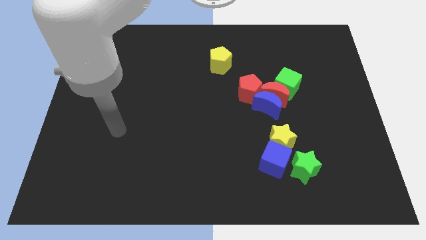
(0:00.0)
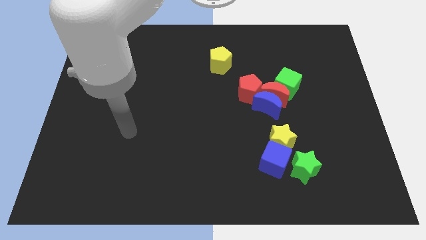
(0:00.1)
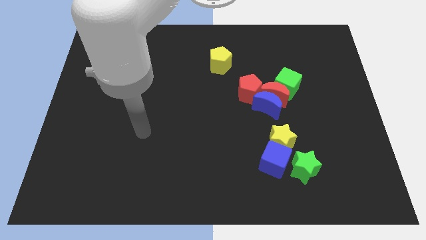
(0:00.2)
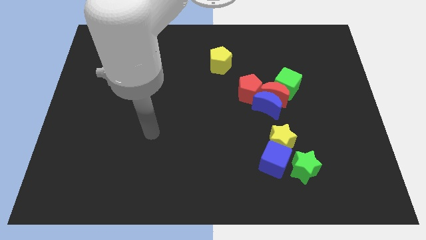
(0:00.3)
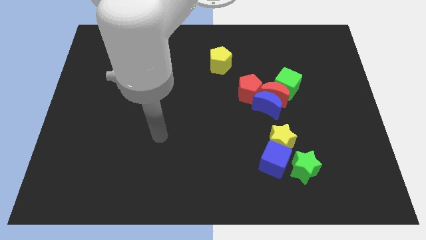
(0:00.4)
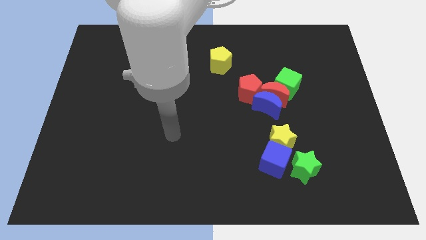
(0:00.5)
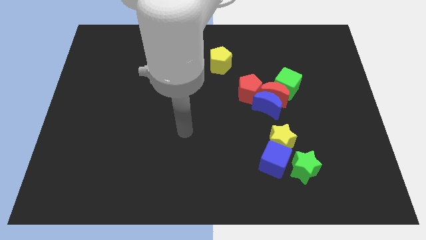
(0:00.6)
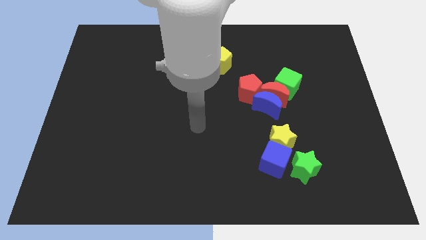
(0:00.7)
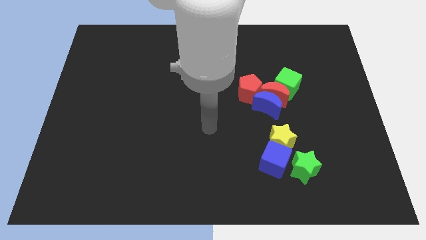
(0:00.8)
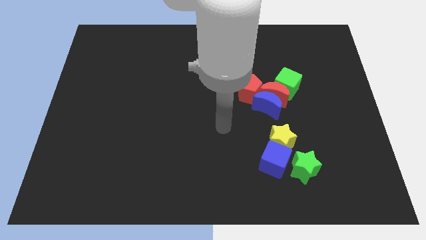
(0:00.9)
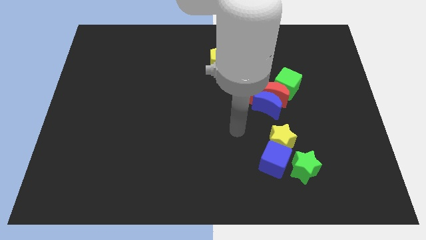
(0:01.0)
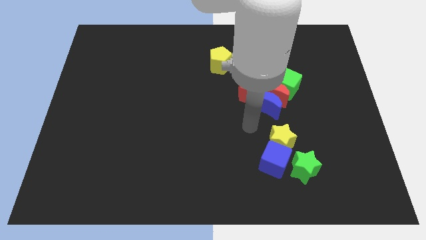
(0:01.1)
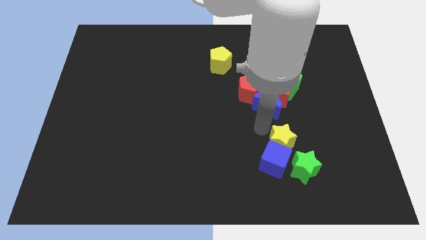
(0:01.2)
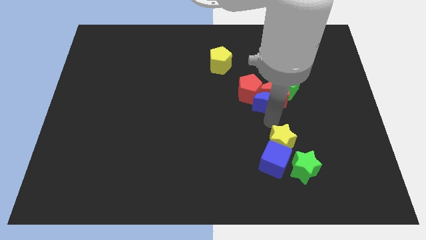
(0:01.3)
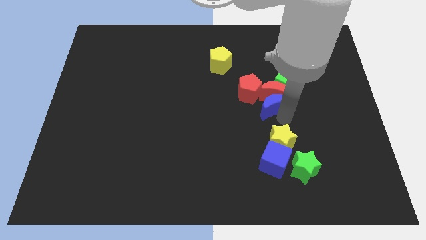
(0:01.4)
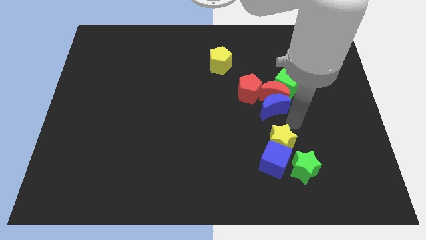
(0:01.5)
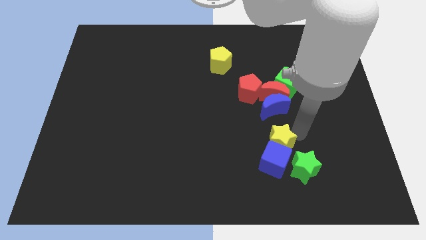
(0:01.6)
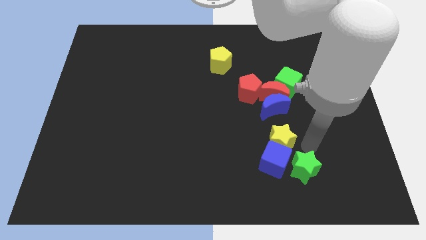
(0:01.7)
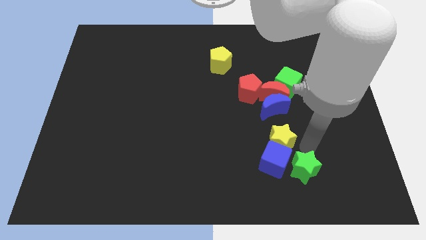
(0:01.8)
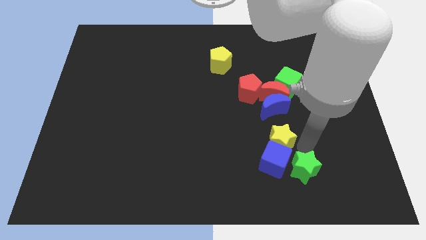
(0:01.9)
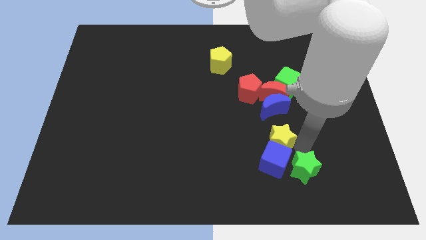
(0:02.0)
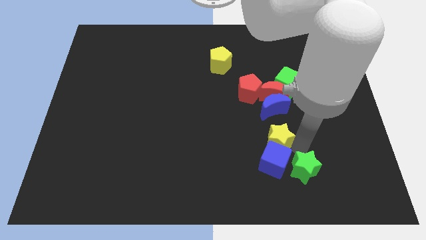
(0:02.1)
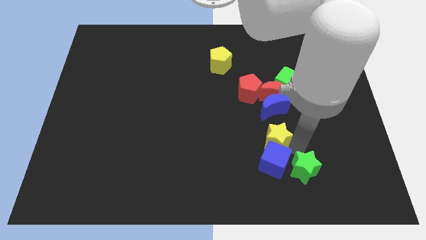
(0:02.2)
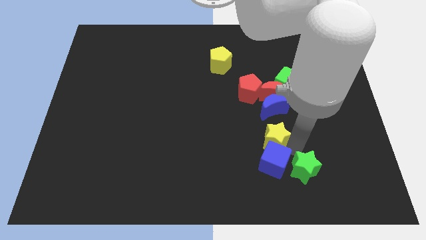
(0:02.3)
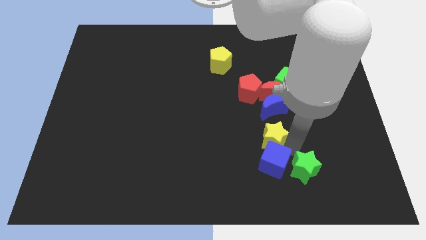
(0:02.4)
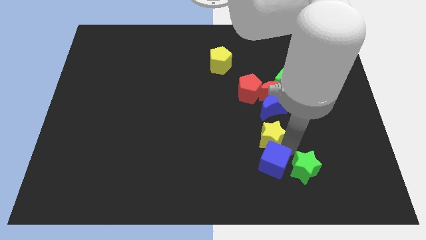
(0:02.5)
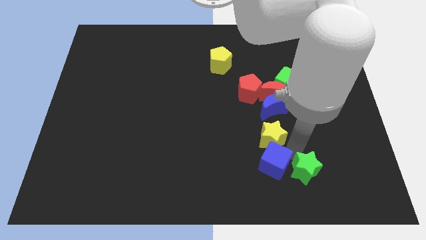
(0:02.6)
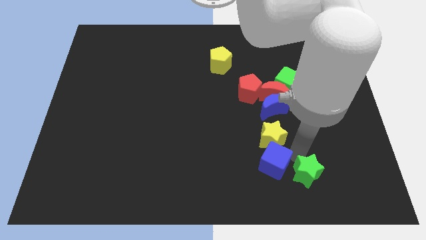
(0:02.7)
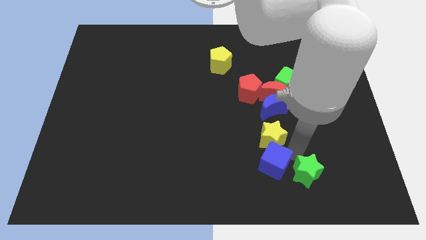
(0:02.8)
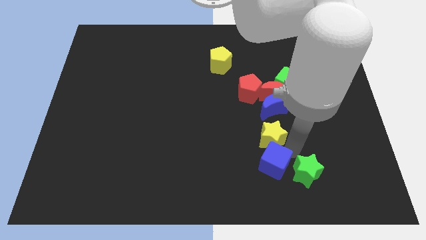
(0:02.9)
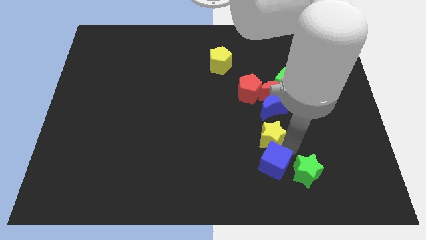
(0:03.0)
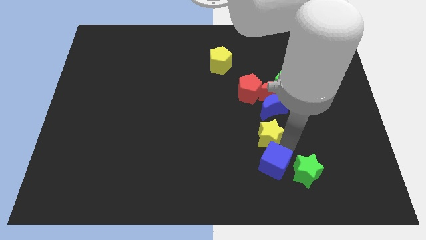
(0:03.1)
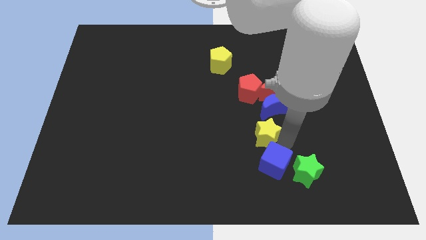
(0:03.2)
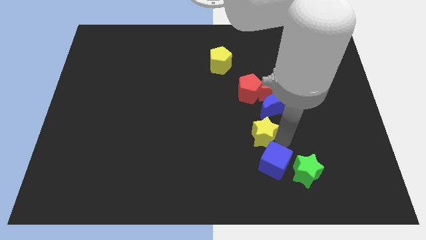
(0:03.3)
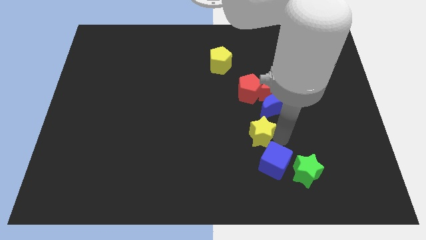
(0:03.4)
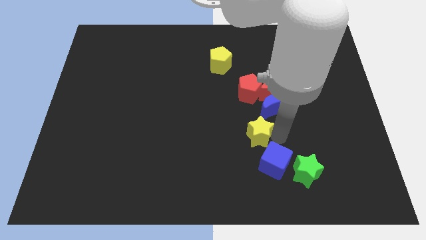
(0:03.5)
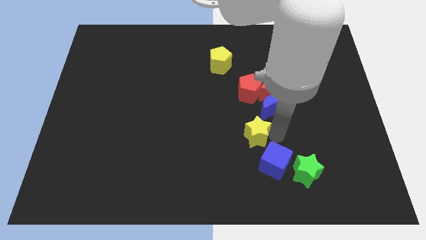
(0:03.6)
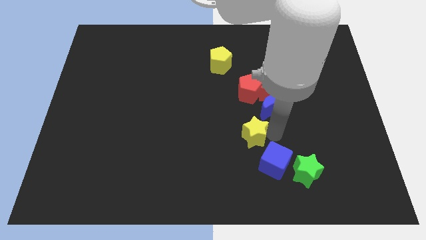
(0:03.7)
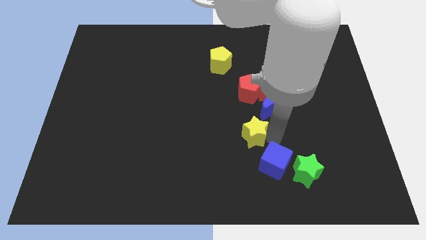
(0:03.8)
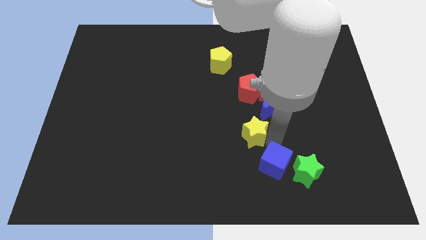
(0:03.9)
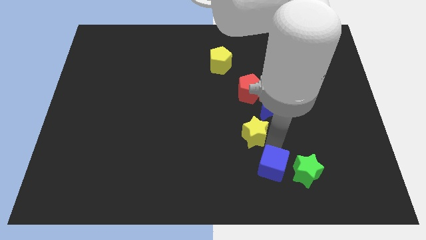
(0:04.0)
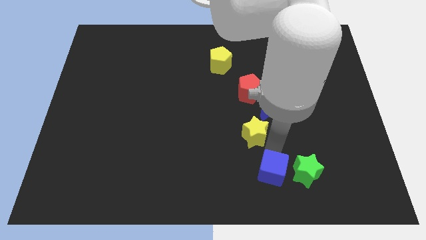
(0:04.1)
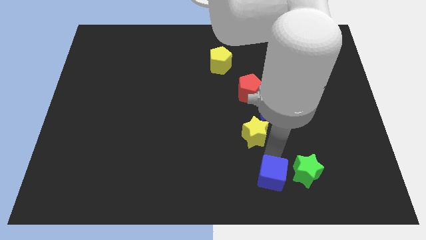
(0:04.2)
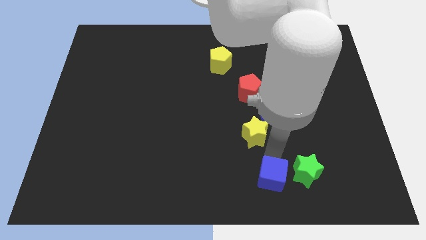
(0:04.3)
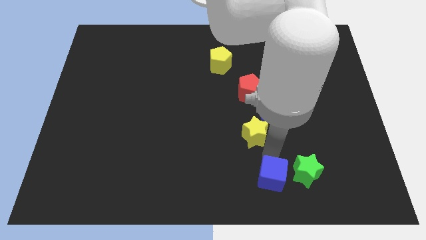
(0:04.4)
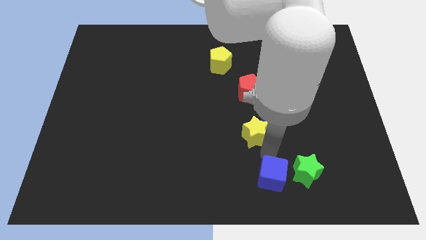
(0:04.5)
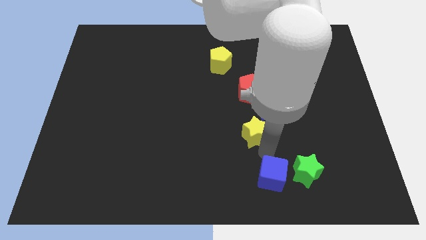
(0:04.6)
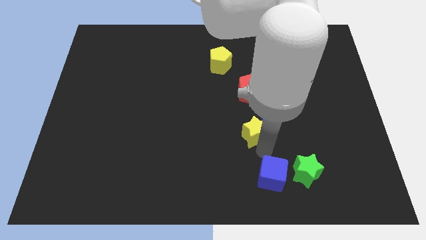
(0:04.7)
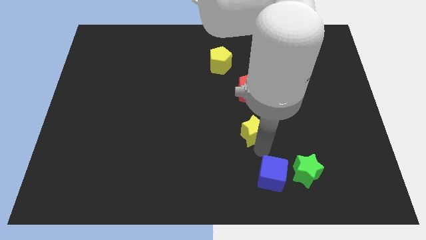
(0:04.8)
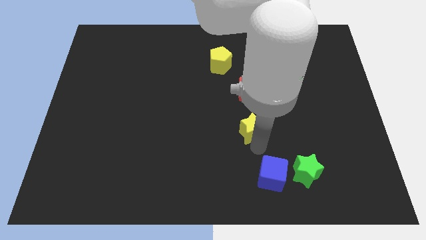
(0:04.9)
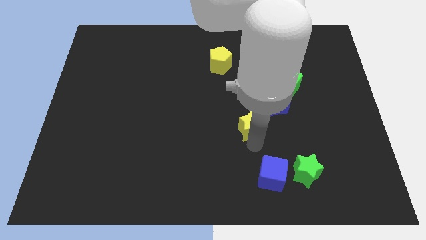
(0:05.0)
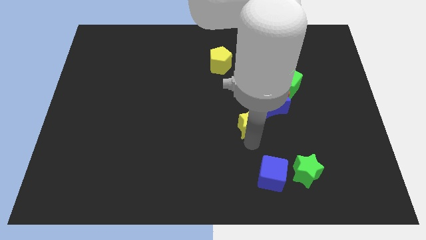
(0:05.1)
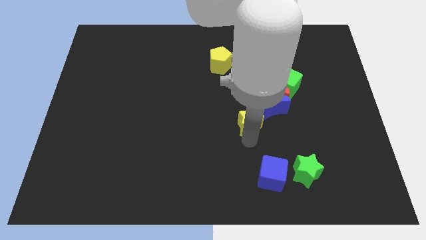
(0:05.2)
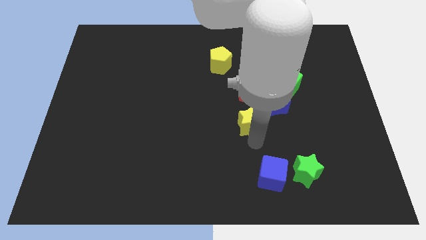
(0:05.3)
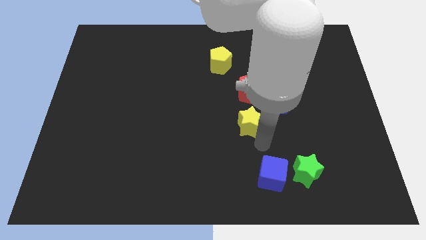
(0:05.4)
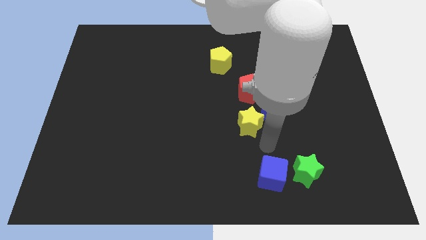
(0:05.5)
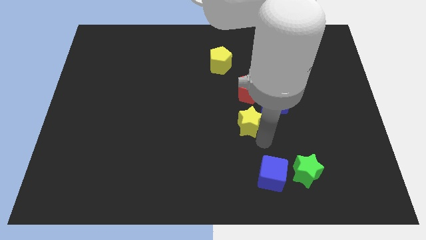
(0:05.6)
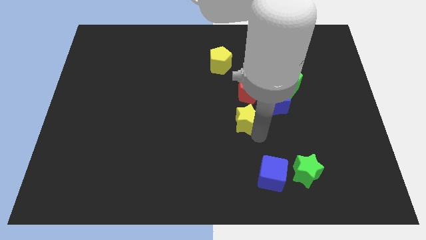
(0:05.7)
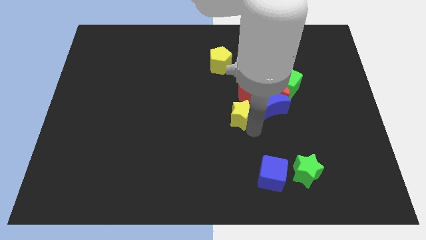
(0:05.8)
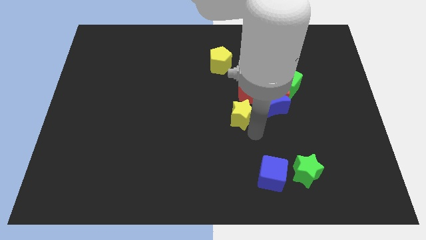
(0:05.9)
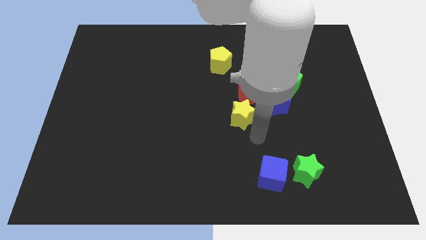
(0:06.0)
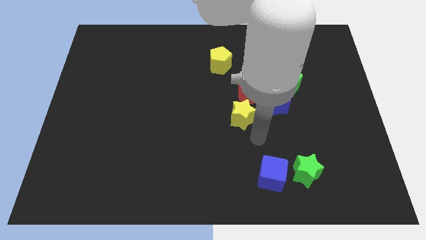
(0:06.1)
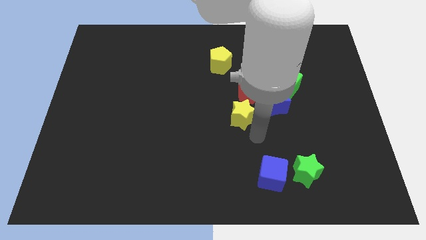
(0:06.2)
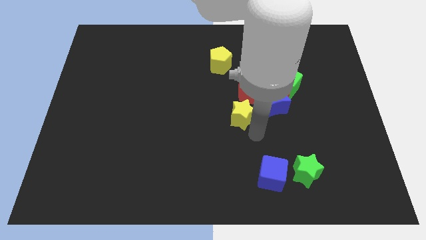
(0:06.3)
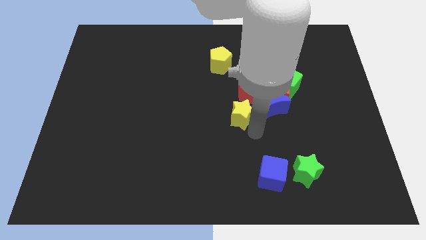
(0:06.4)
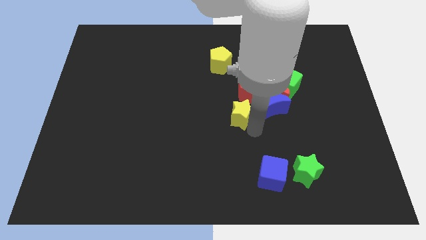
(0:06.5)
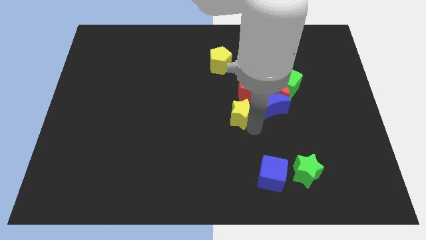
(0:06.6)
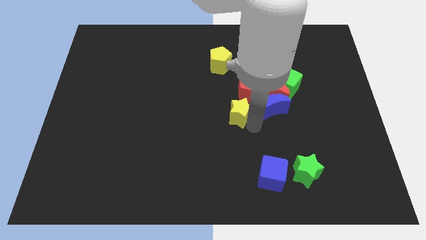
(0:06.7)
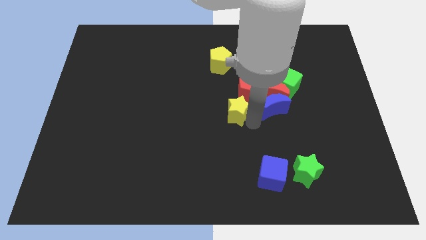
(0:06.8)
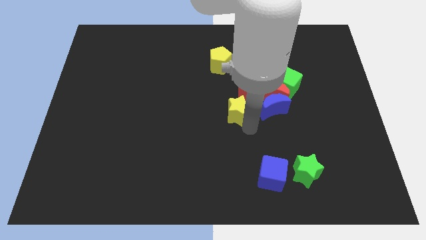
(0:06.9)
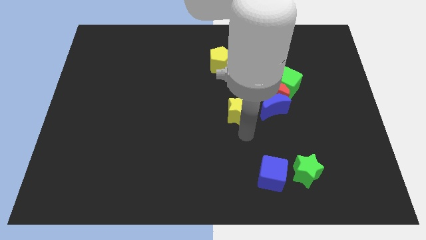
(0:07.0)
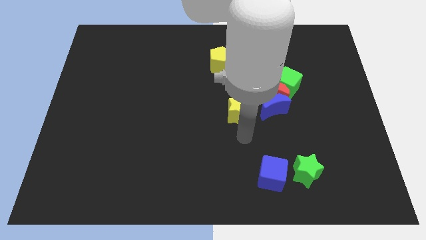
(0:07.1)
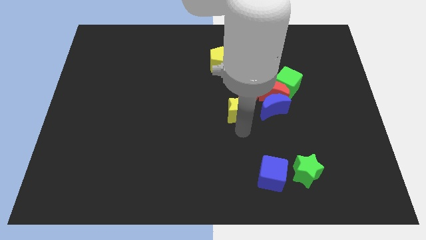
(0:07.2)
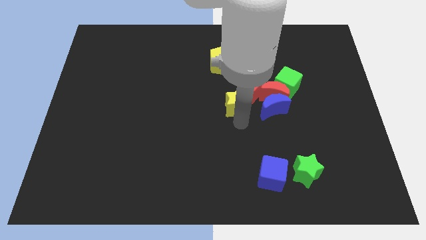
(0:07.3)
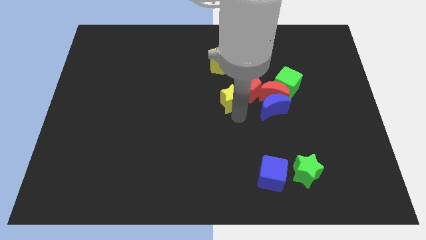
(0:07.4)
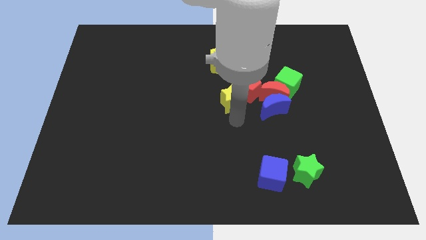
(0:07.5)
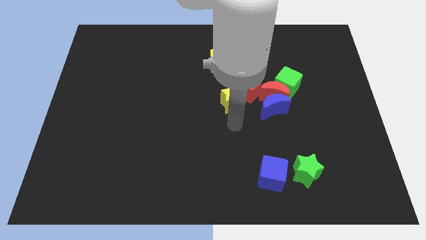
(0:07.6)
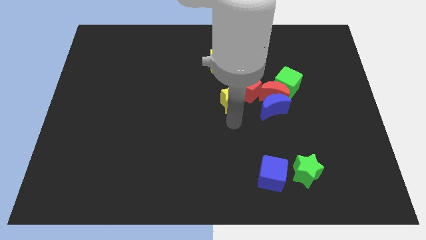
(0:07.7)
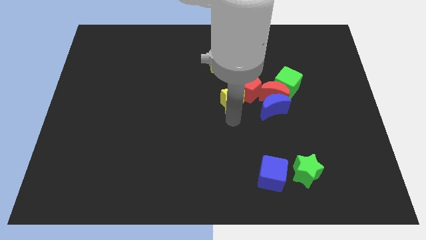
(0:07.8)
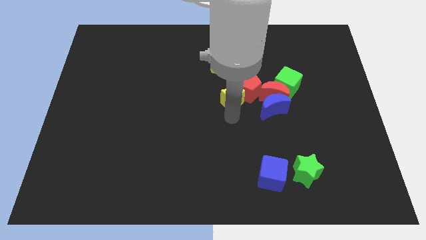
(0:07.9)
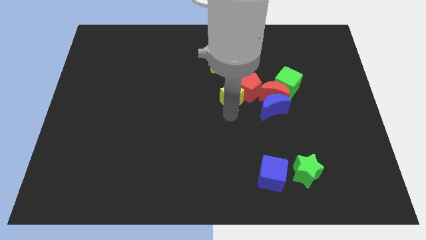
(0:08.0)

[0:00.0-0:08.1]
slightly slide the yellow star upwards
